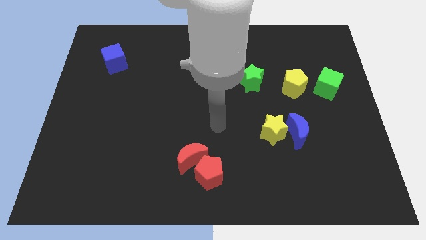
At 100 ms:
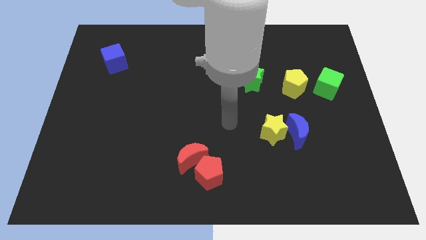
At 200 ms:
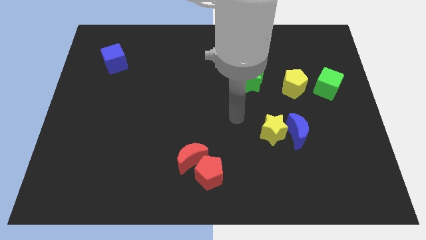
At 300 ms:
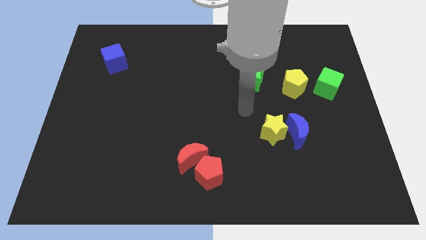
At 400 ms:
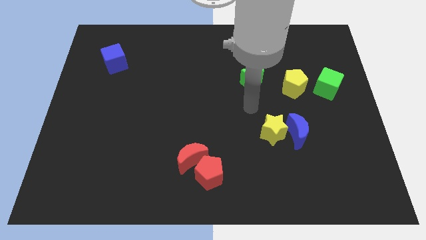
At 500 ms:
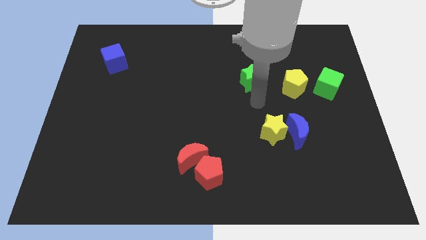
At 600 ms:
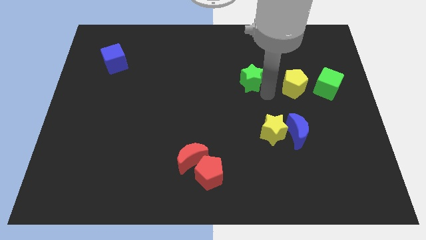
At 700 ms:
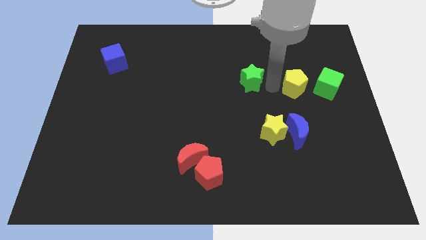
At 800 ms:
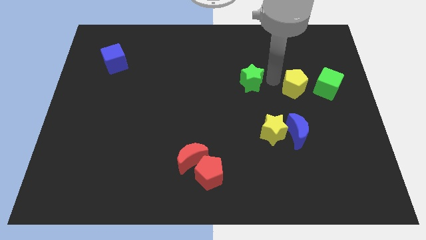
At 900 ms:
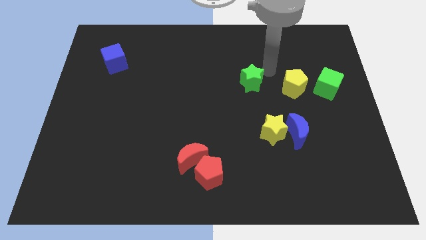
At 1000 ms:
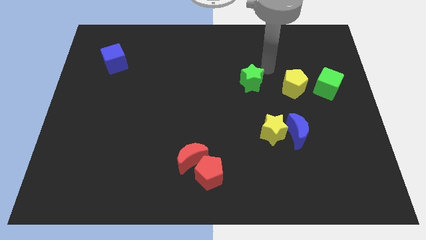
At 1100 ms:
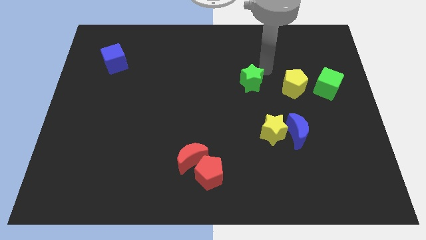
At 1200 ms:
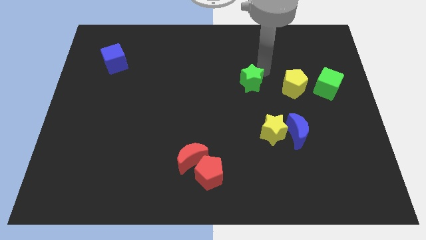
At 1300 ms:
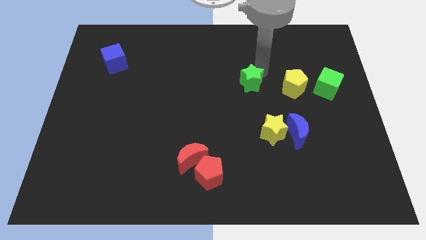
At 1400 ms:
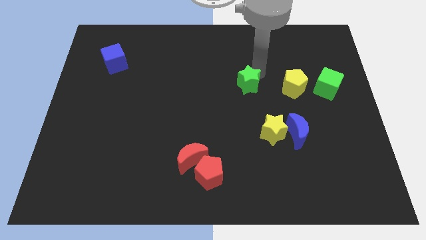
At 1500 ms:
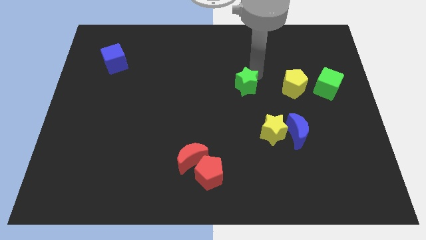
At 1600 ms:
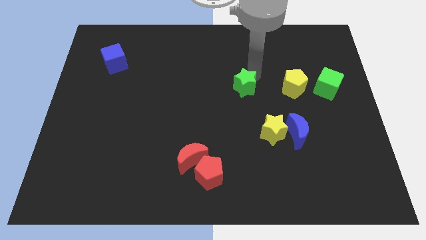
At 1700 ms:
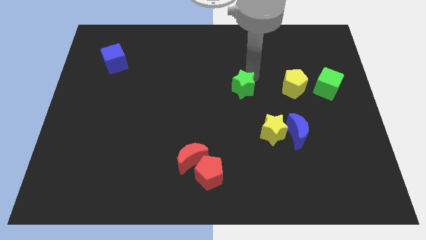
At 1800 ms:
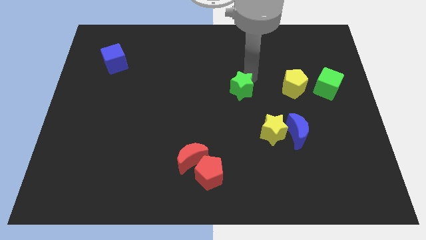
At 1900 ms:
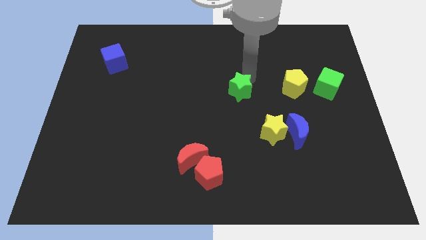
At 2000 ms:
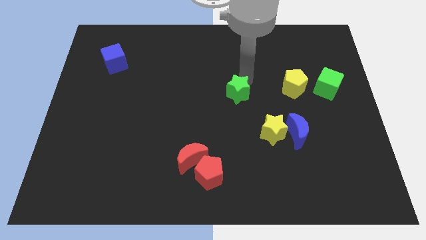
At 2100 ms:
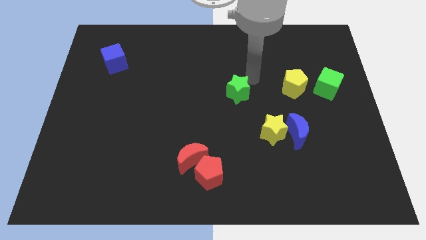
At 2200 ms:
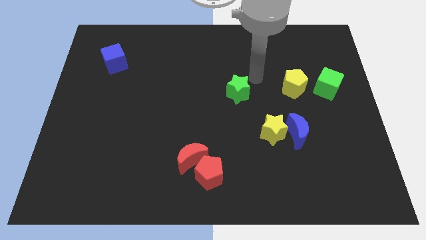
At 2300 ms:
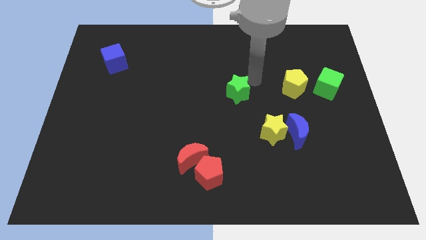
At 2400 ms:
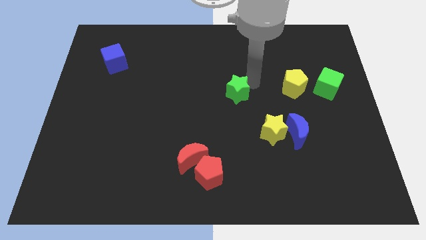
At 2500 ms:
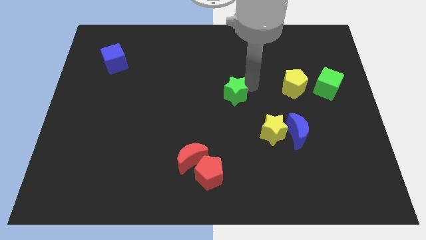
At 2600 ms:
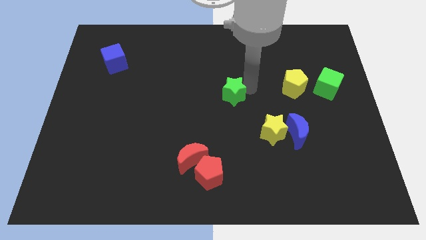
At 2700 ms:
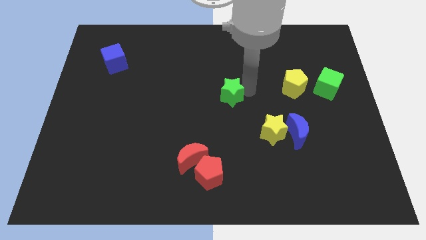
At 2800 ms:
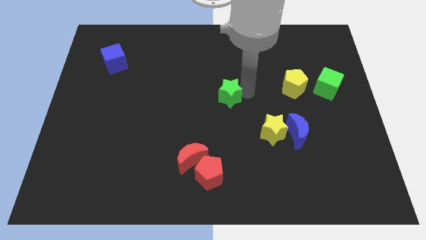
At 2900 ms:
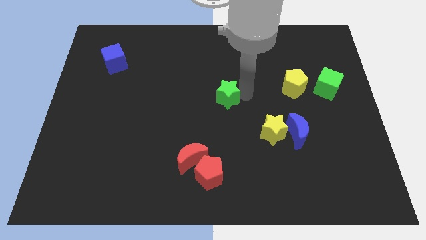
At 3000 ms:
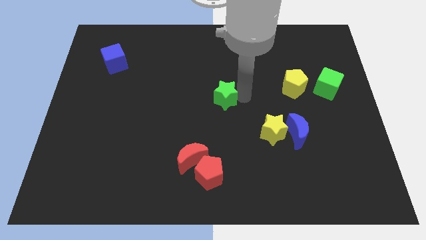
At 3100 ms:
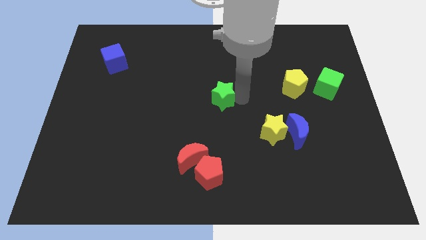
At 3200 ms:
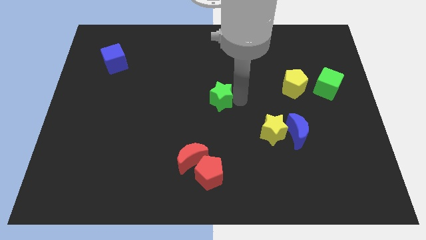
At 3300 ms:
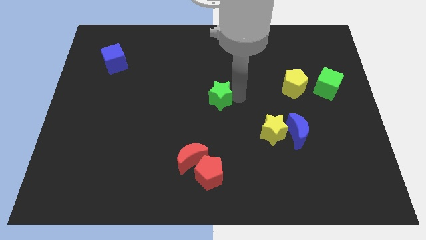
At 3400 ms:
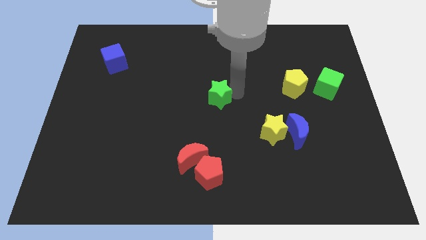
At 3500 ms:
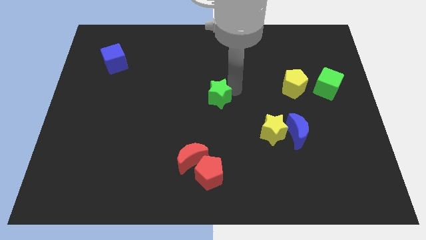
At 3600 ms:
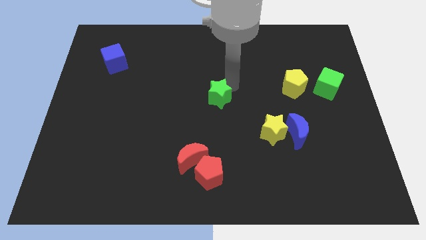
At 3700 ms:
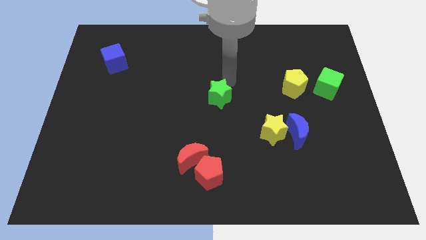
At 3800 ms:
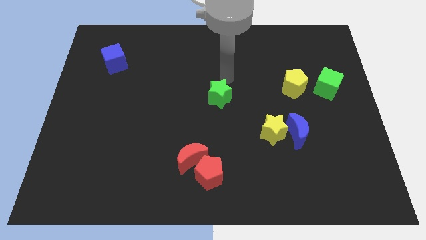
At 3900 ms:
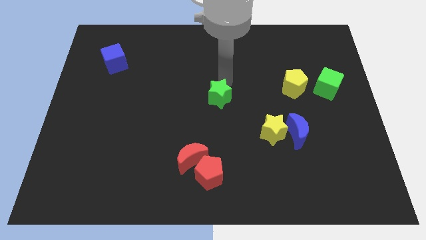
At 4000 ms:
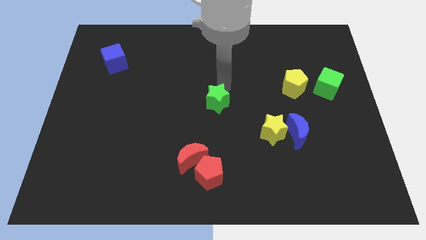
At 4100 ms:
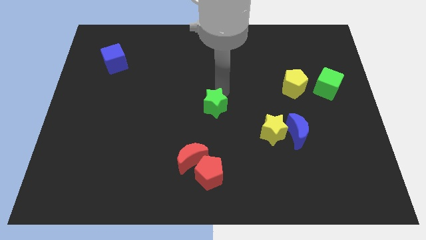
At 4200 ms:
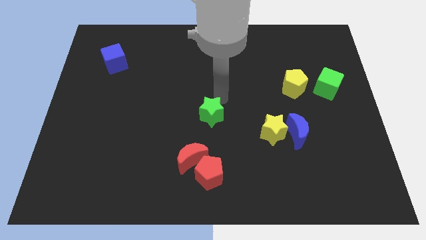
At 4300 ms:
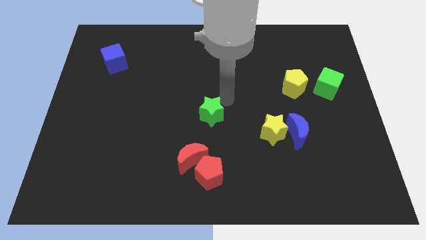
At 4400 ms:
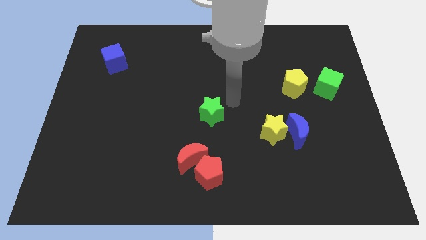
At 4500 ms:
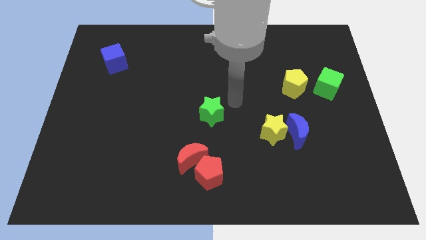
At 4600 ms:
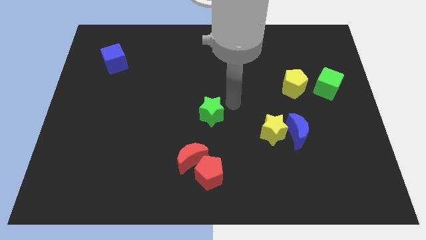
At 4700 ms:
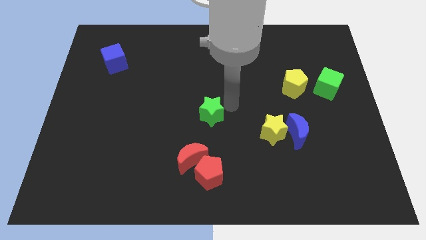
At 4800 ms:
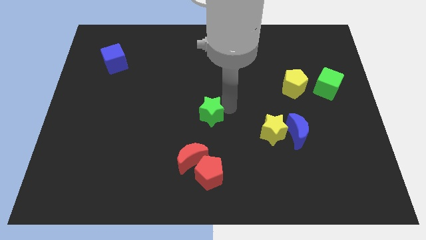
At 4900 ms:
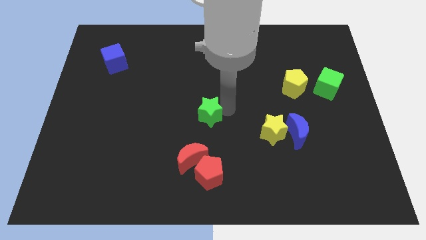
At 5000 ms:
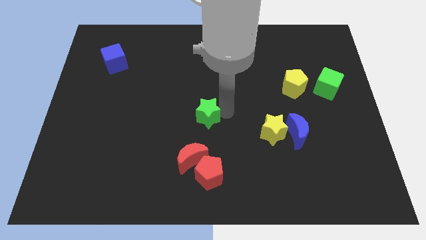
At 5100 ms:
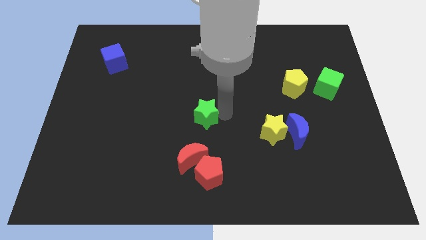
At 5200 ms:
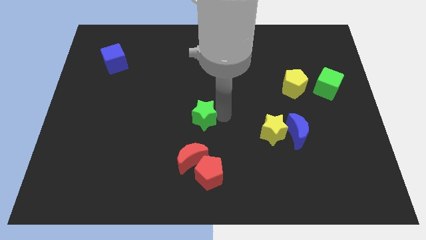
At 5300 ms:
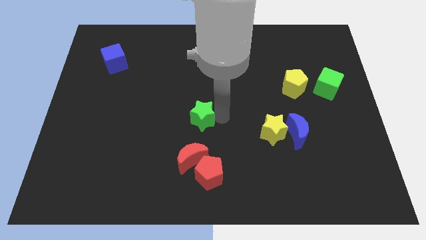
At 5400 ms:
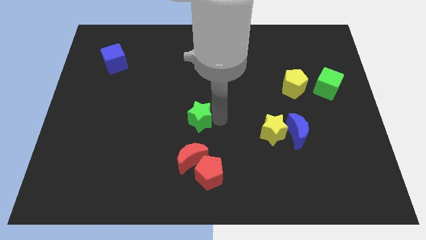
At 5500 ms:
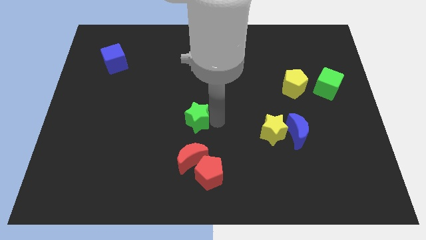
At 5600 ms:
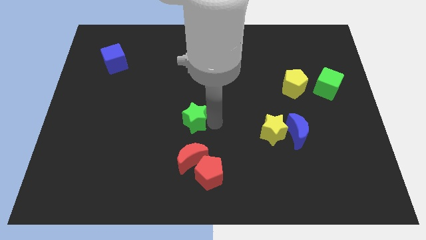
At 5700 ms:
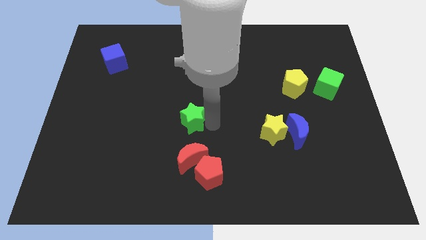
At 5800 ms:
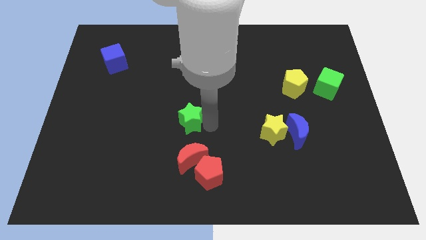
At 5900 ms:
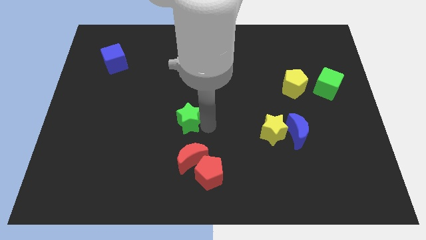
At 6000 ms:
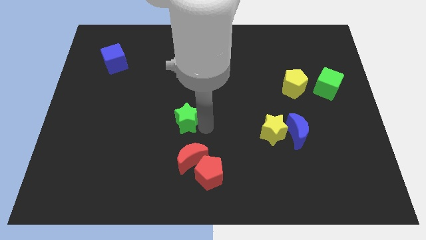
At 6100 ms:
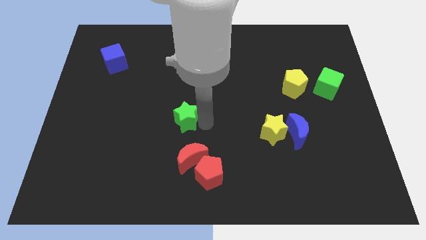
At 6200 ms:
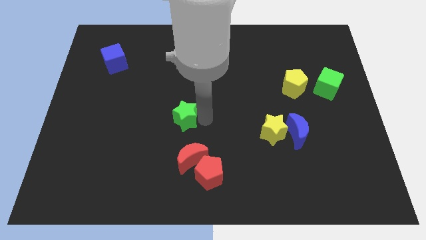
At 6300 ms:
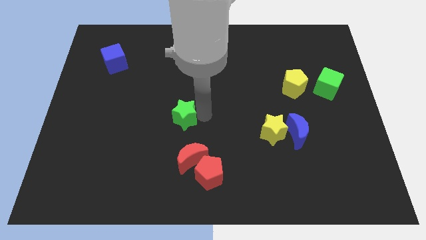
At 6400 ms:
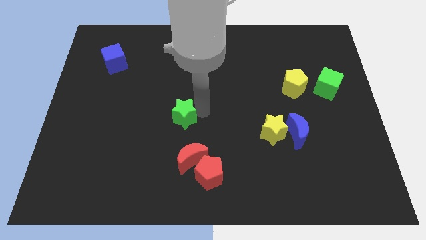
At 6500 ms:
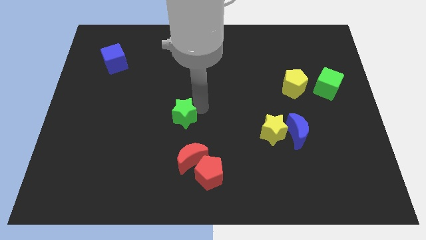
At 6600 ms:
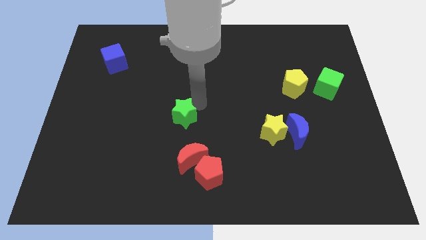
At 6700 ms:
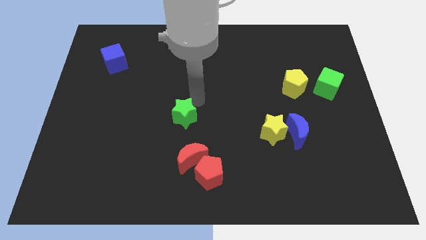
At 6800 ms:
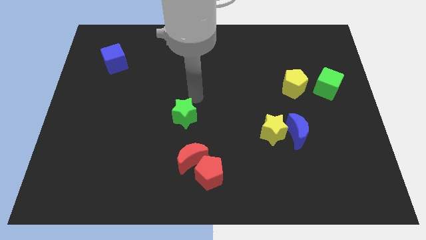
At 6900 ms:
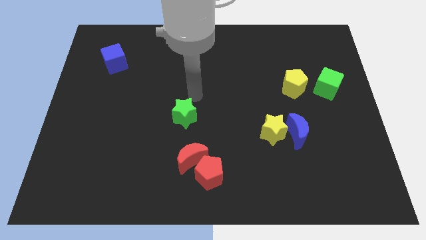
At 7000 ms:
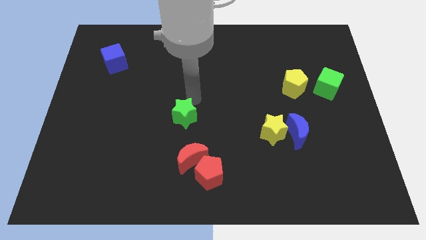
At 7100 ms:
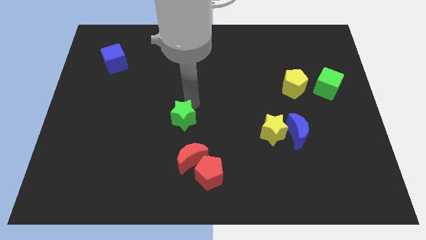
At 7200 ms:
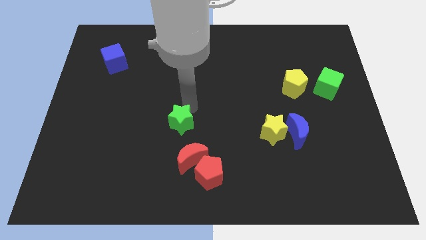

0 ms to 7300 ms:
slide the green star diagonally down and left

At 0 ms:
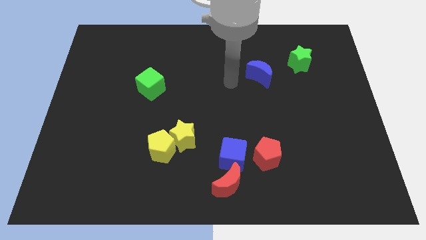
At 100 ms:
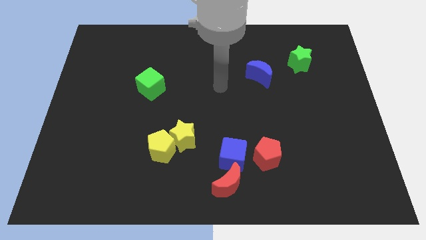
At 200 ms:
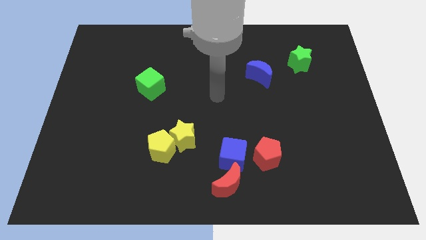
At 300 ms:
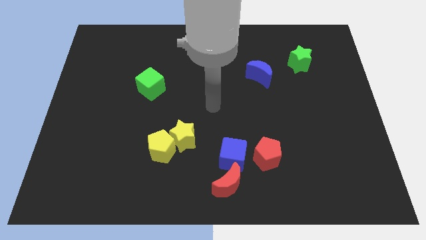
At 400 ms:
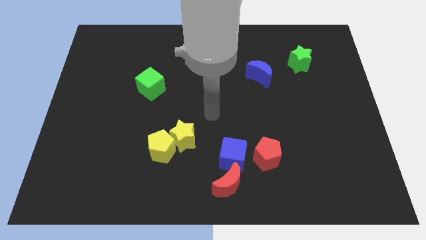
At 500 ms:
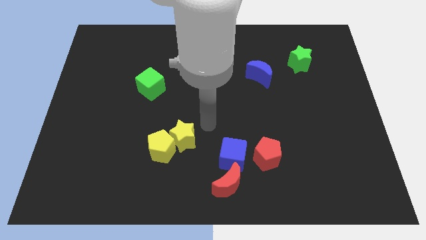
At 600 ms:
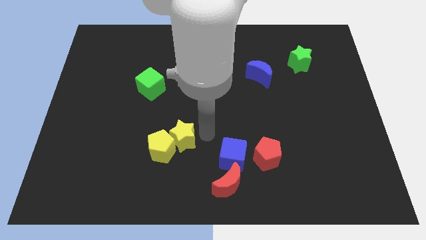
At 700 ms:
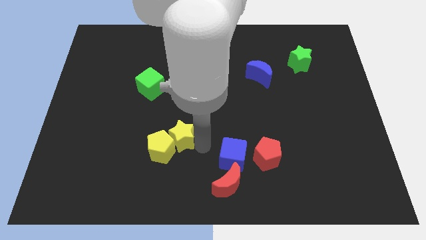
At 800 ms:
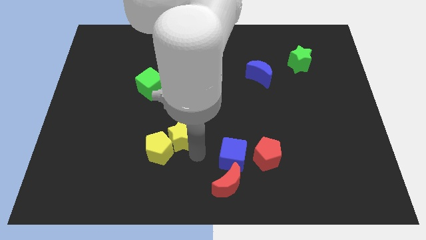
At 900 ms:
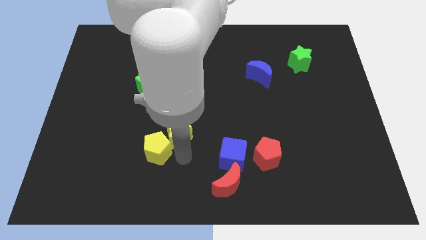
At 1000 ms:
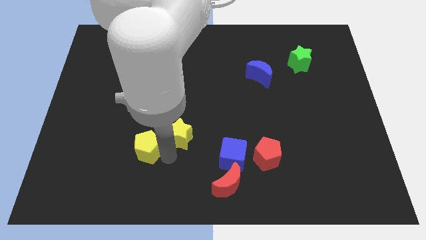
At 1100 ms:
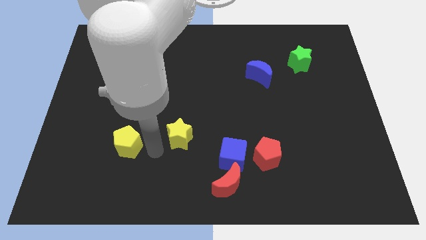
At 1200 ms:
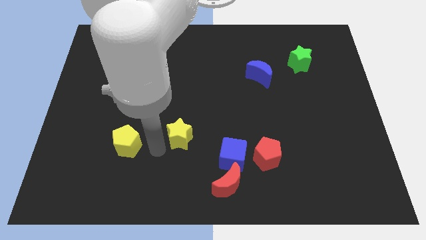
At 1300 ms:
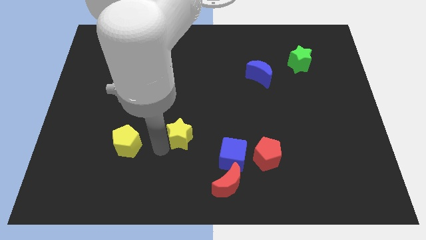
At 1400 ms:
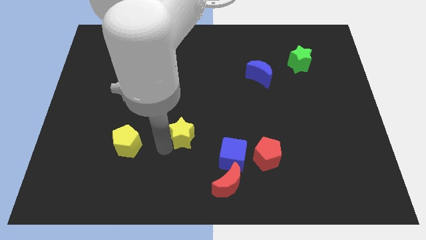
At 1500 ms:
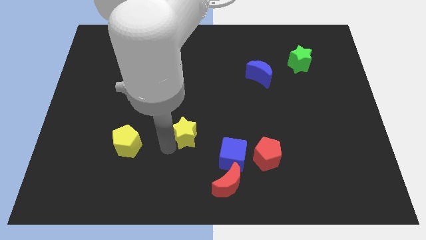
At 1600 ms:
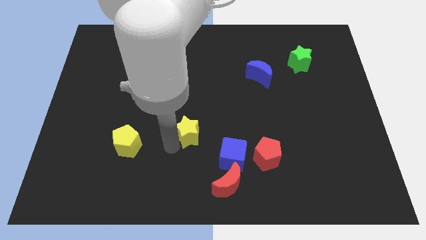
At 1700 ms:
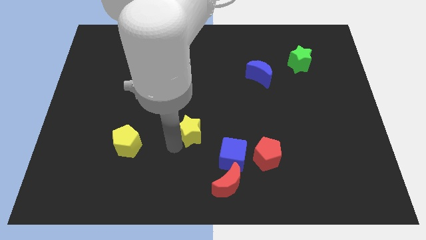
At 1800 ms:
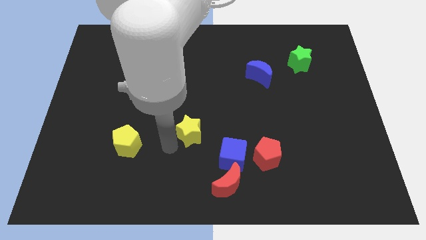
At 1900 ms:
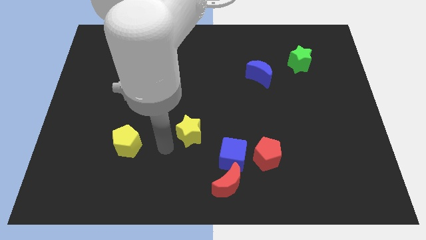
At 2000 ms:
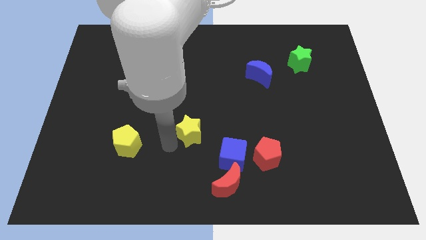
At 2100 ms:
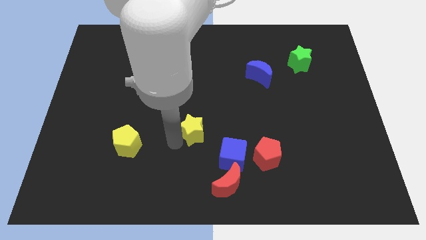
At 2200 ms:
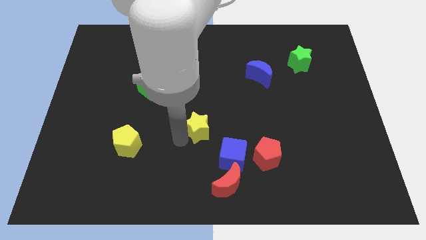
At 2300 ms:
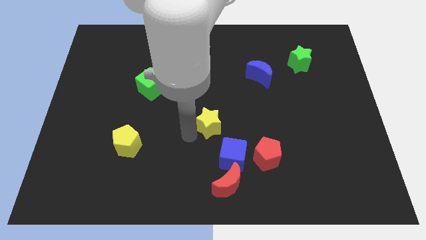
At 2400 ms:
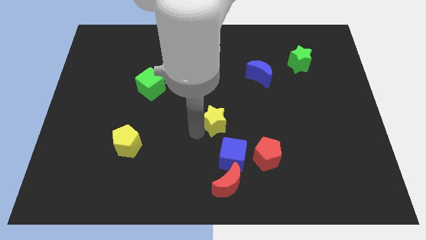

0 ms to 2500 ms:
slightly push the yellow star up and right
